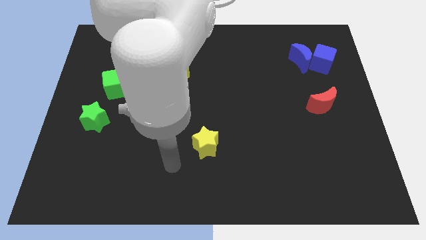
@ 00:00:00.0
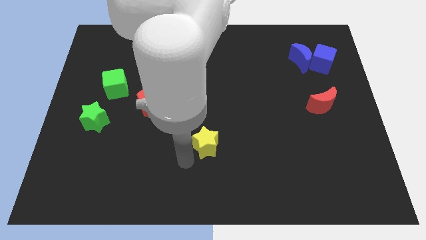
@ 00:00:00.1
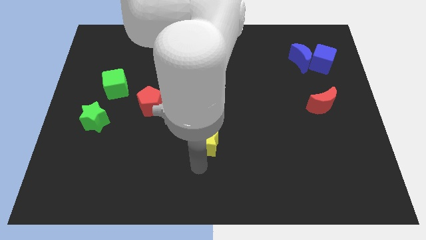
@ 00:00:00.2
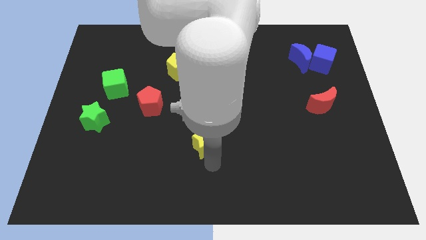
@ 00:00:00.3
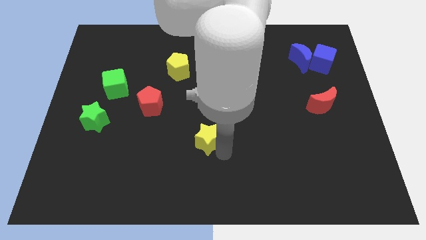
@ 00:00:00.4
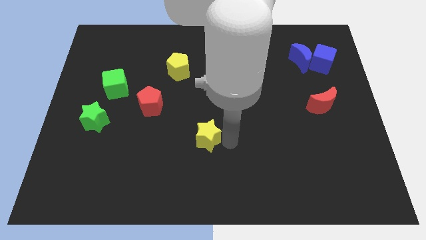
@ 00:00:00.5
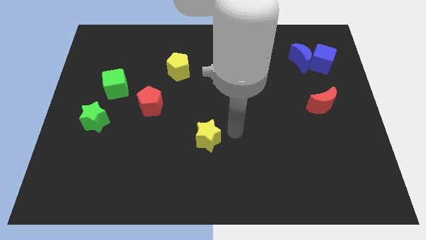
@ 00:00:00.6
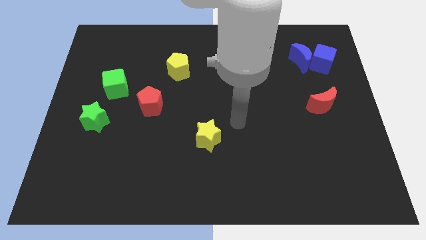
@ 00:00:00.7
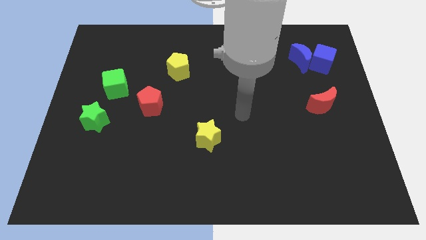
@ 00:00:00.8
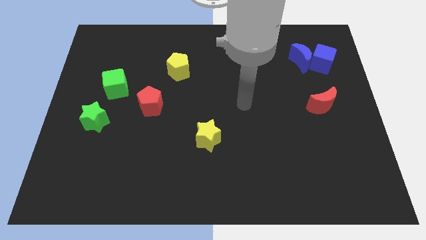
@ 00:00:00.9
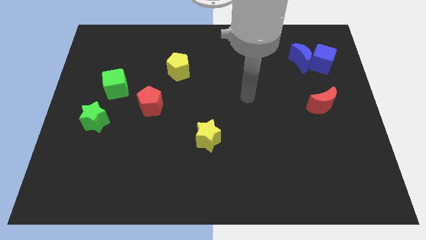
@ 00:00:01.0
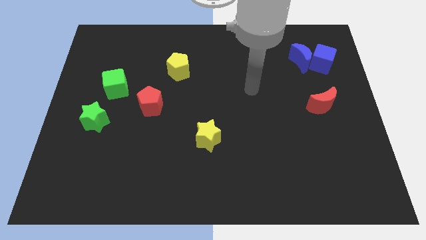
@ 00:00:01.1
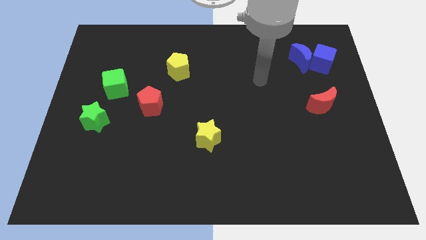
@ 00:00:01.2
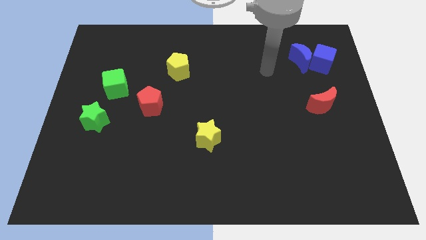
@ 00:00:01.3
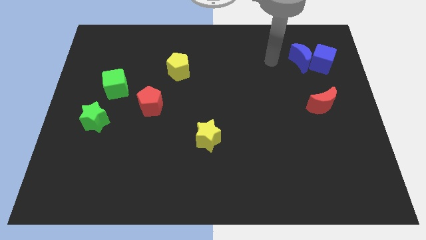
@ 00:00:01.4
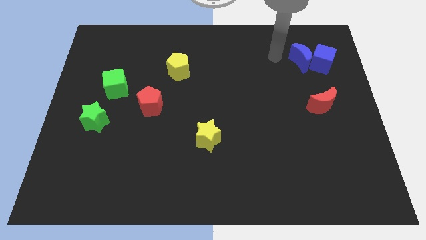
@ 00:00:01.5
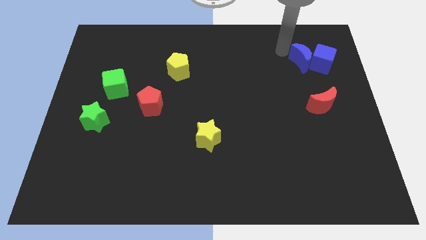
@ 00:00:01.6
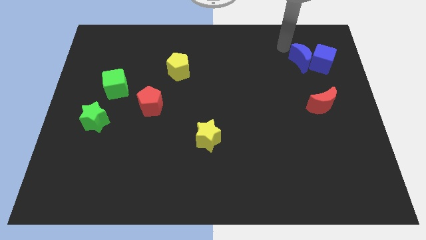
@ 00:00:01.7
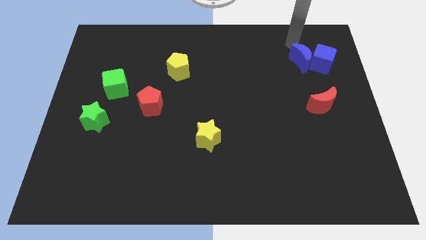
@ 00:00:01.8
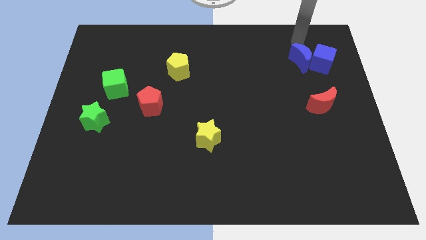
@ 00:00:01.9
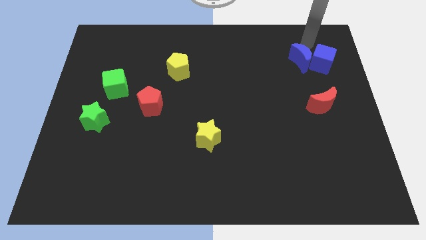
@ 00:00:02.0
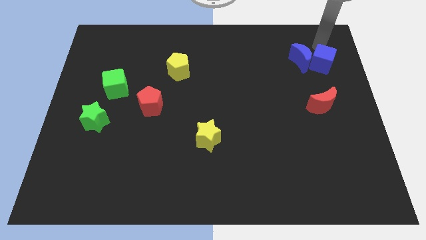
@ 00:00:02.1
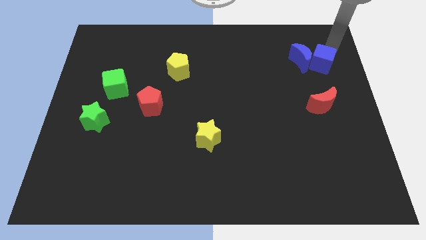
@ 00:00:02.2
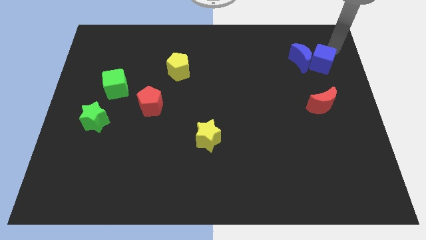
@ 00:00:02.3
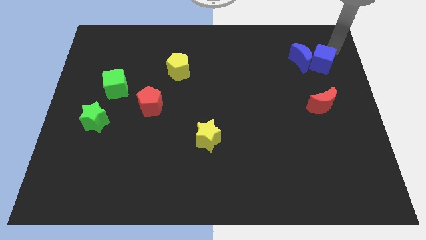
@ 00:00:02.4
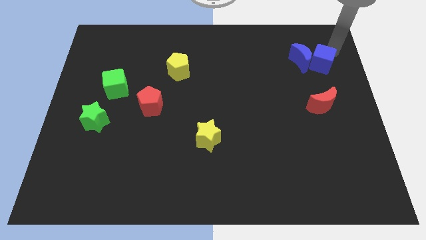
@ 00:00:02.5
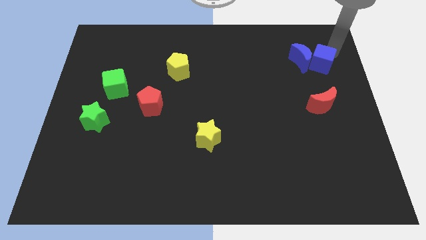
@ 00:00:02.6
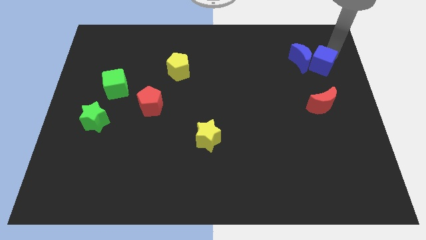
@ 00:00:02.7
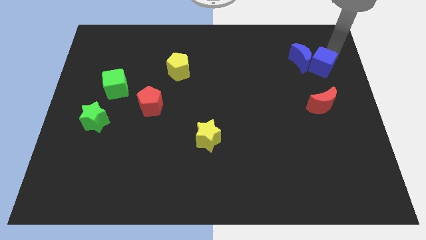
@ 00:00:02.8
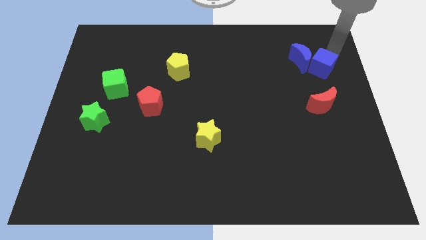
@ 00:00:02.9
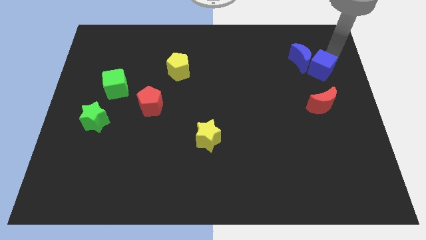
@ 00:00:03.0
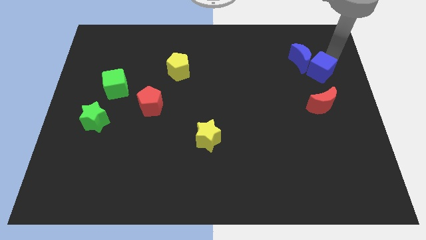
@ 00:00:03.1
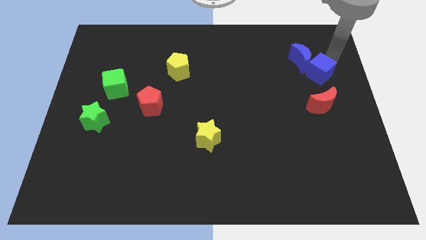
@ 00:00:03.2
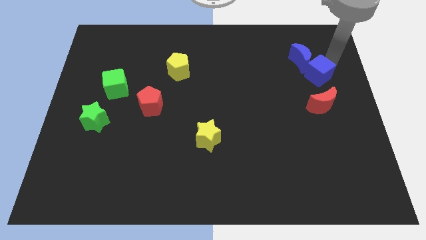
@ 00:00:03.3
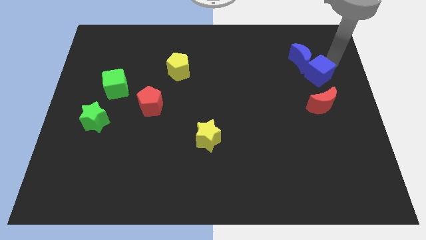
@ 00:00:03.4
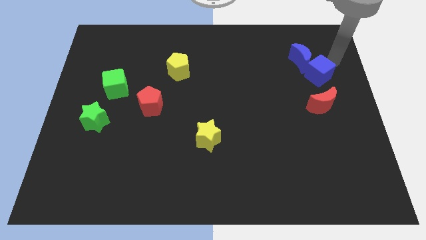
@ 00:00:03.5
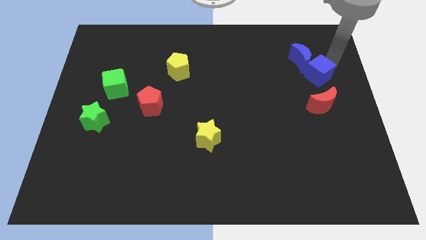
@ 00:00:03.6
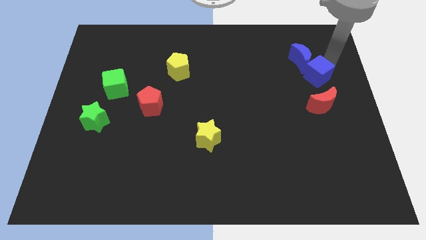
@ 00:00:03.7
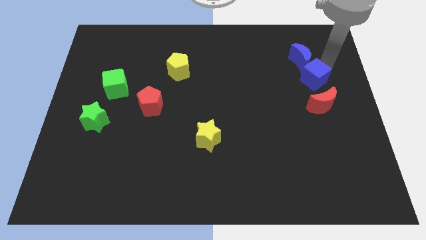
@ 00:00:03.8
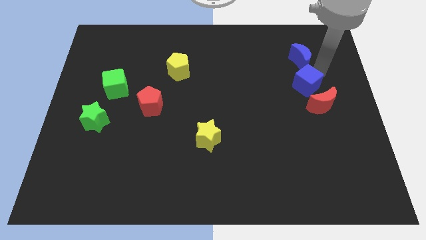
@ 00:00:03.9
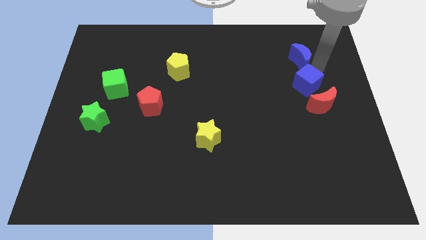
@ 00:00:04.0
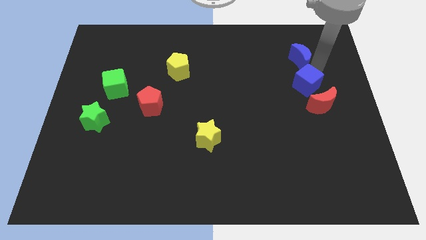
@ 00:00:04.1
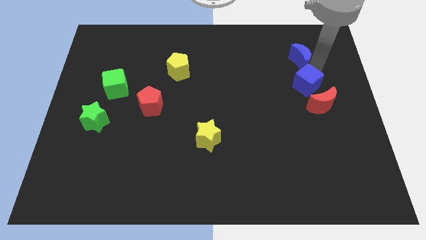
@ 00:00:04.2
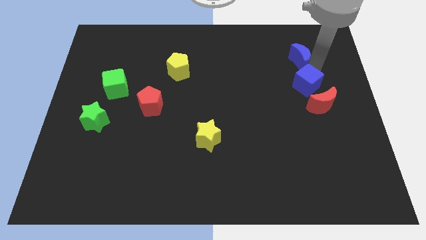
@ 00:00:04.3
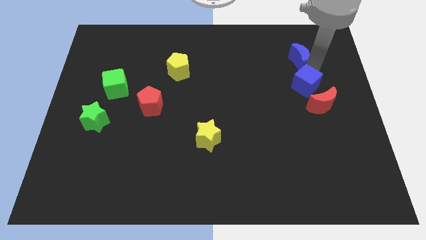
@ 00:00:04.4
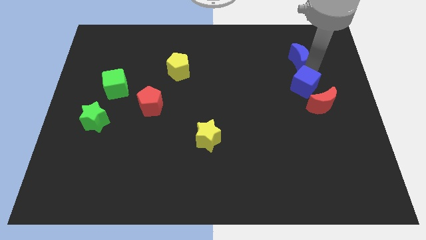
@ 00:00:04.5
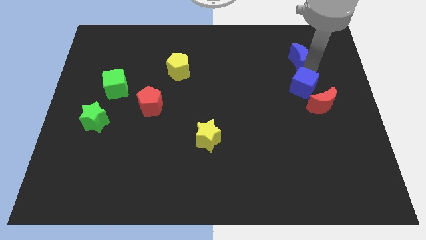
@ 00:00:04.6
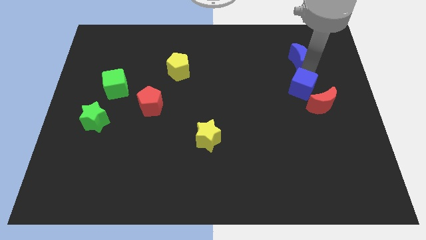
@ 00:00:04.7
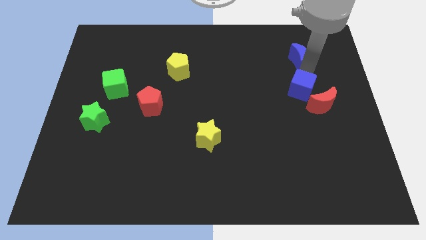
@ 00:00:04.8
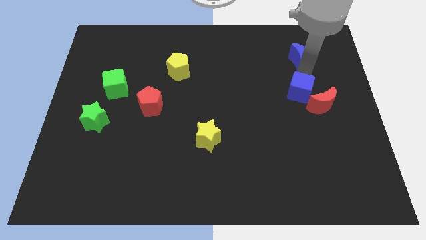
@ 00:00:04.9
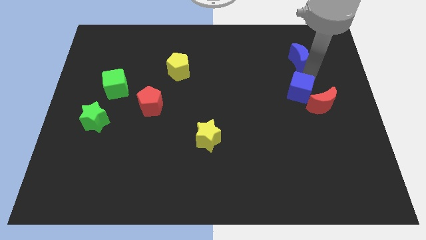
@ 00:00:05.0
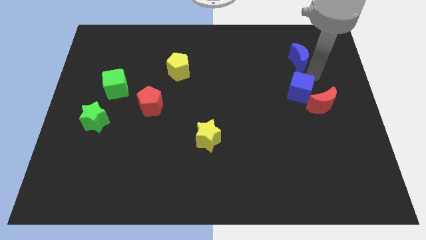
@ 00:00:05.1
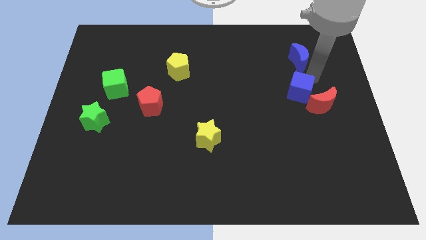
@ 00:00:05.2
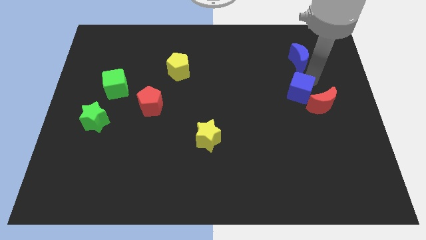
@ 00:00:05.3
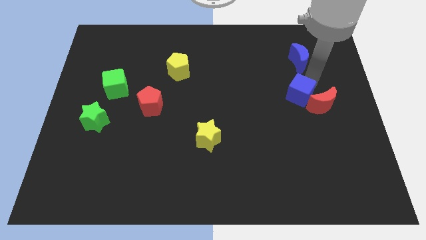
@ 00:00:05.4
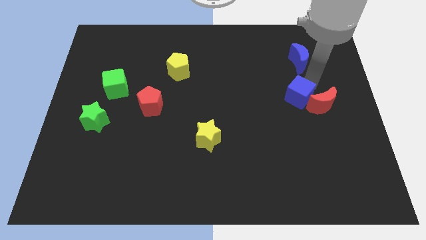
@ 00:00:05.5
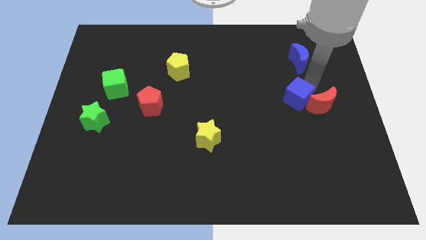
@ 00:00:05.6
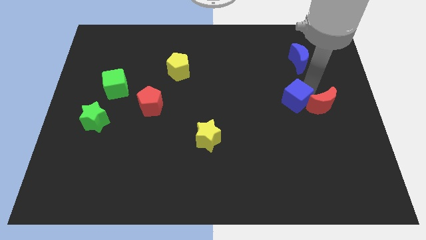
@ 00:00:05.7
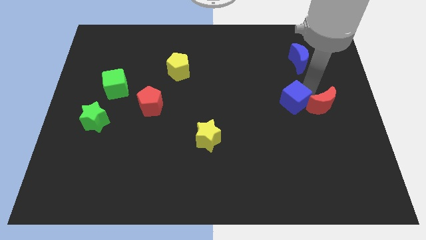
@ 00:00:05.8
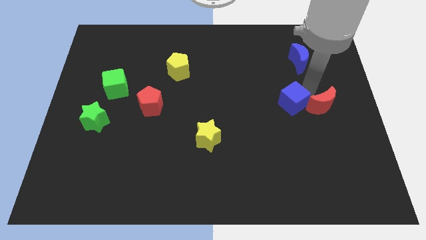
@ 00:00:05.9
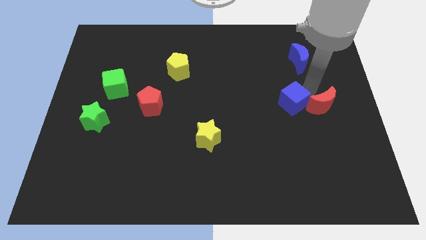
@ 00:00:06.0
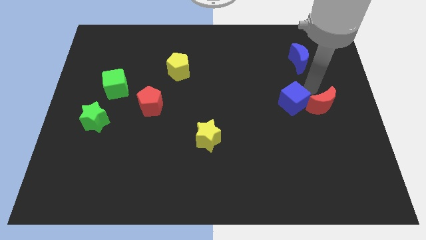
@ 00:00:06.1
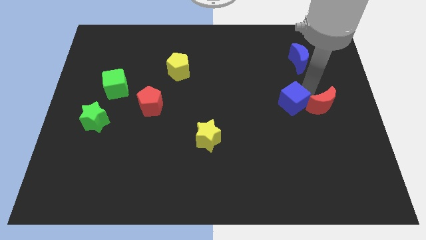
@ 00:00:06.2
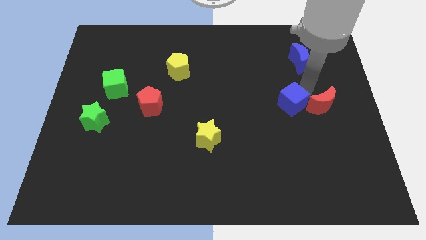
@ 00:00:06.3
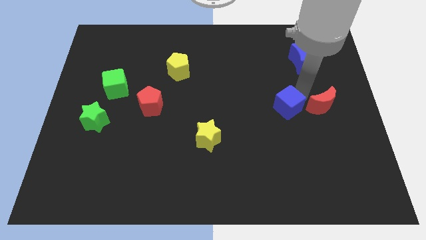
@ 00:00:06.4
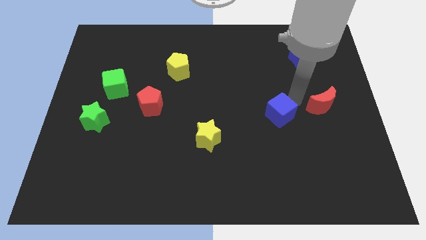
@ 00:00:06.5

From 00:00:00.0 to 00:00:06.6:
move the blue cube downwards and left diagonally

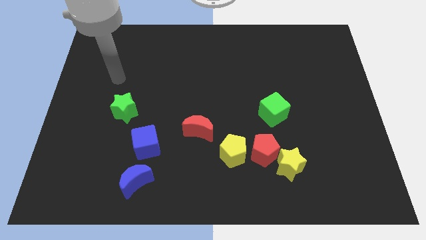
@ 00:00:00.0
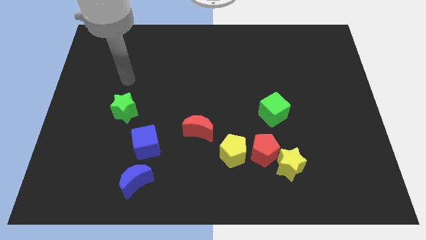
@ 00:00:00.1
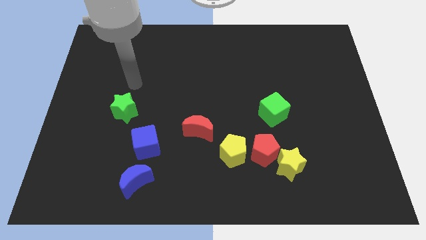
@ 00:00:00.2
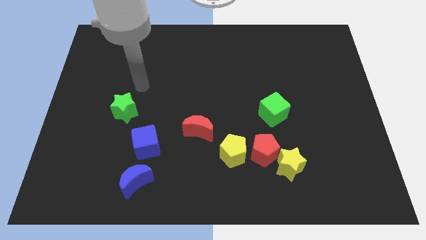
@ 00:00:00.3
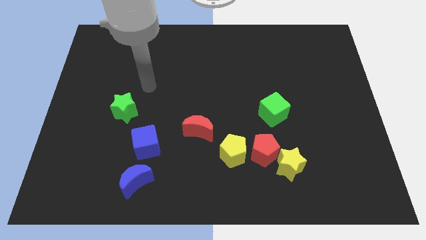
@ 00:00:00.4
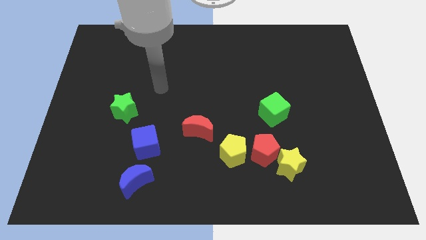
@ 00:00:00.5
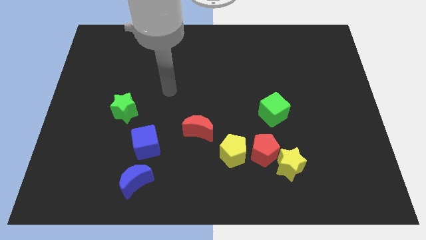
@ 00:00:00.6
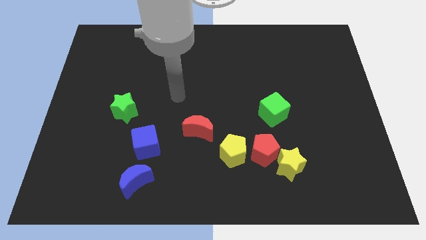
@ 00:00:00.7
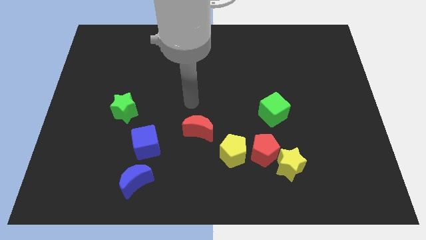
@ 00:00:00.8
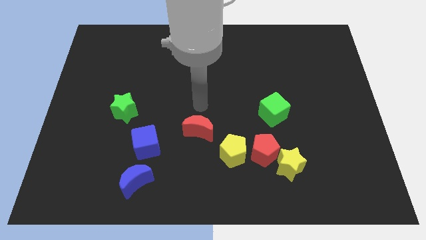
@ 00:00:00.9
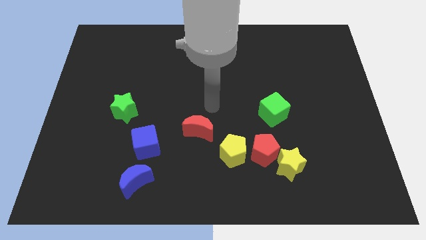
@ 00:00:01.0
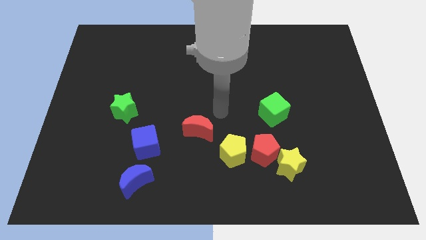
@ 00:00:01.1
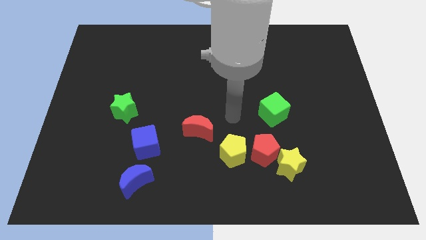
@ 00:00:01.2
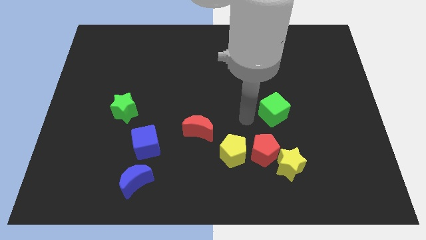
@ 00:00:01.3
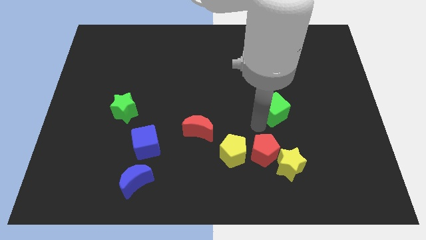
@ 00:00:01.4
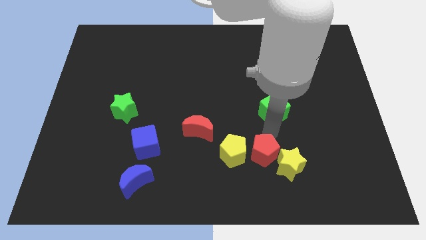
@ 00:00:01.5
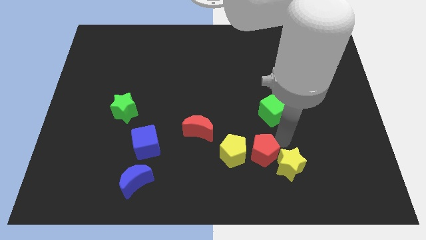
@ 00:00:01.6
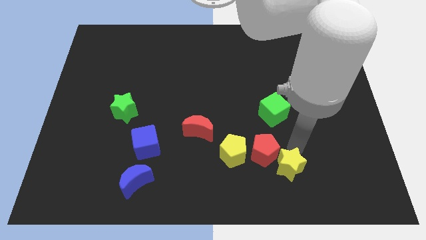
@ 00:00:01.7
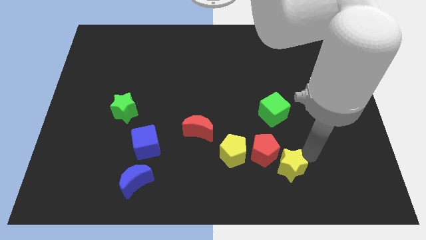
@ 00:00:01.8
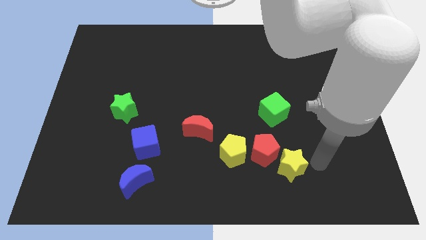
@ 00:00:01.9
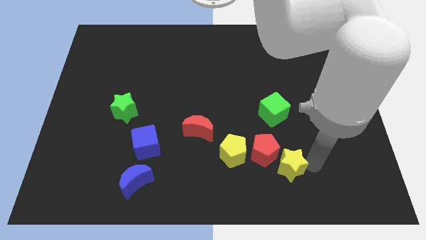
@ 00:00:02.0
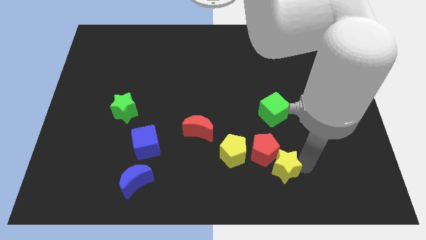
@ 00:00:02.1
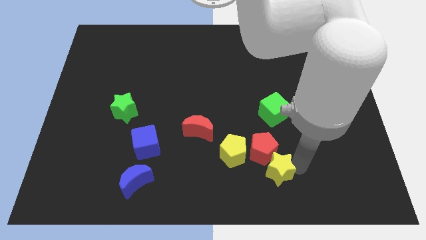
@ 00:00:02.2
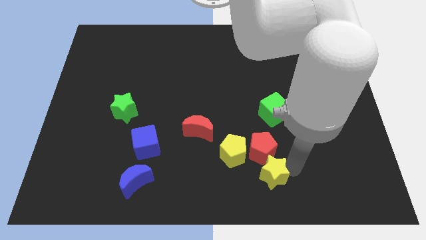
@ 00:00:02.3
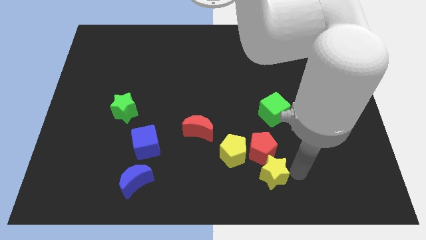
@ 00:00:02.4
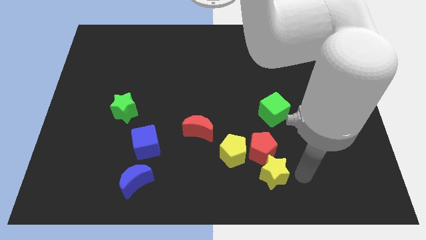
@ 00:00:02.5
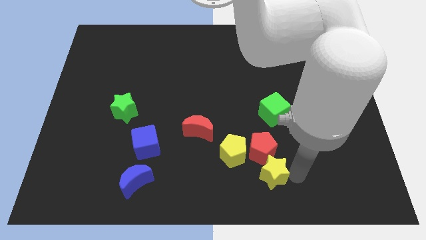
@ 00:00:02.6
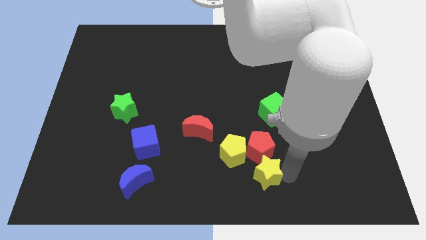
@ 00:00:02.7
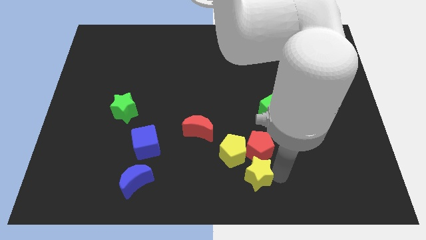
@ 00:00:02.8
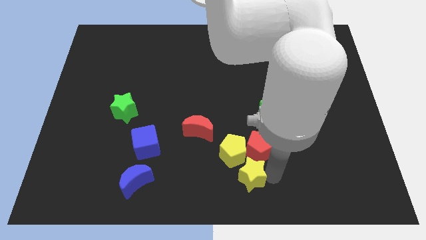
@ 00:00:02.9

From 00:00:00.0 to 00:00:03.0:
slightly slide the yellow star left
